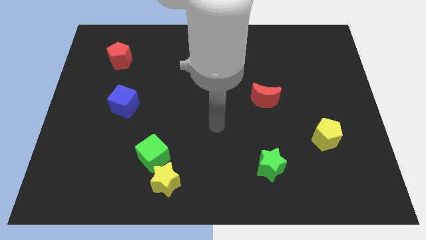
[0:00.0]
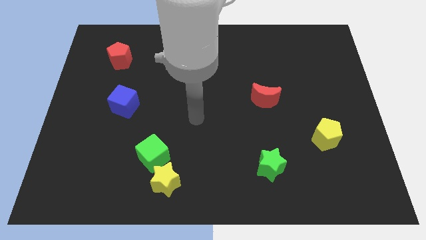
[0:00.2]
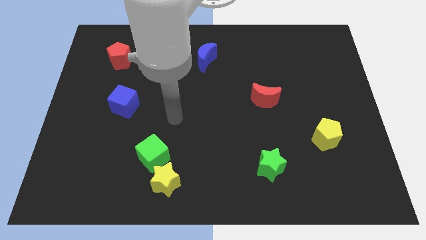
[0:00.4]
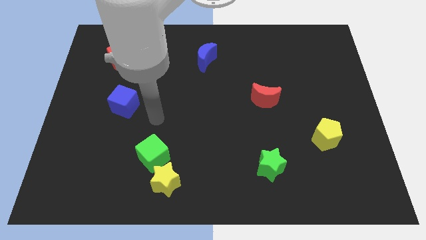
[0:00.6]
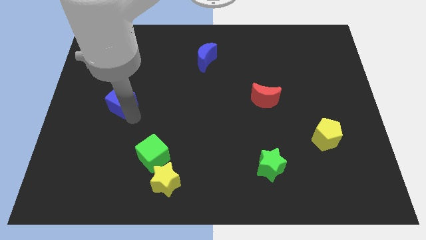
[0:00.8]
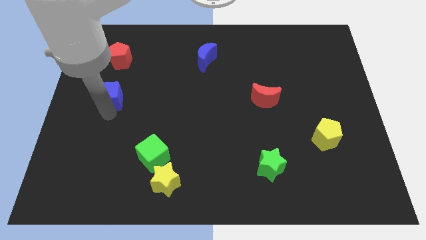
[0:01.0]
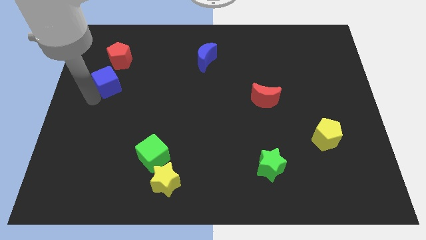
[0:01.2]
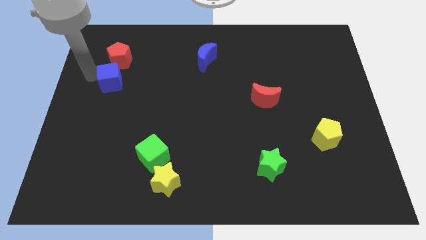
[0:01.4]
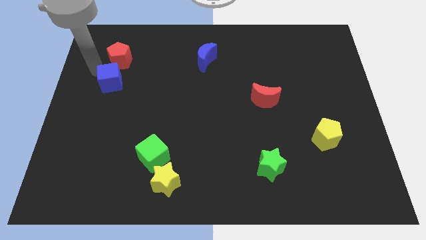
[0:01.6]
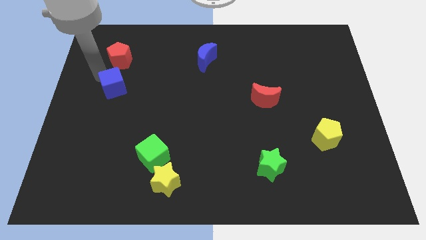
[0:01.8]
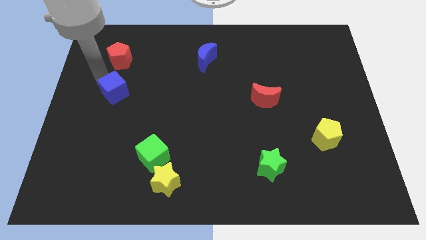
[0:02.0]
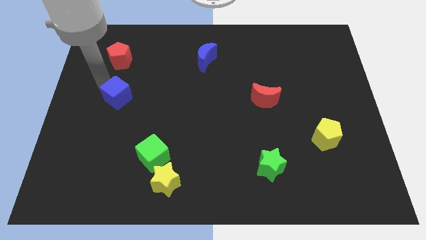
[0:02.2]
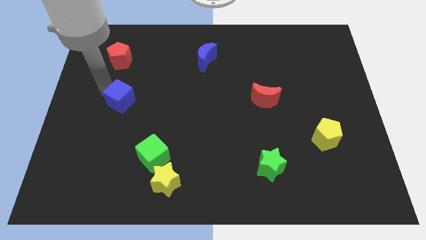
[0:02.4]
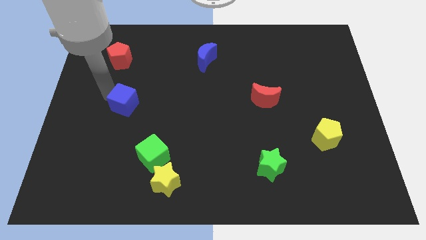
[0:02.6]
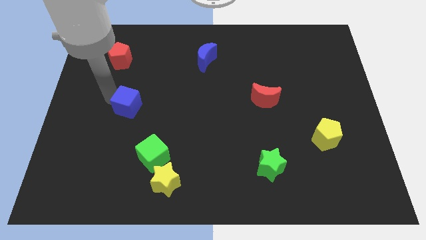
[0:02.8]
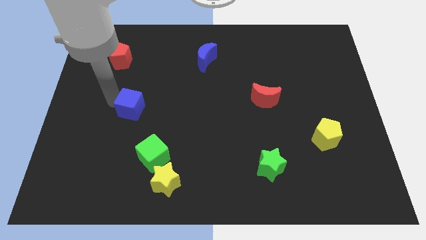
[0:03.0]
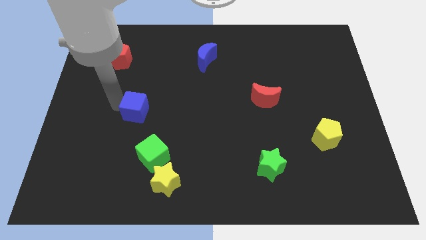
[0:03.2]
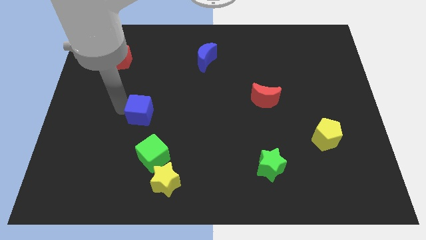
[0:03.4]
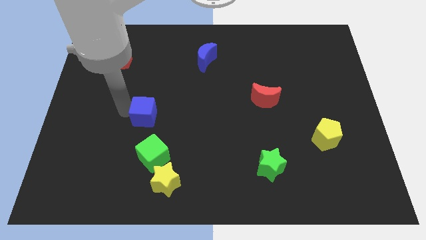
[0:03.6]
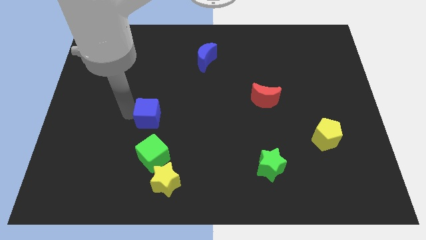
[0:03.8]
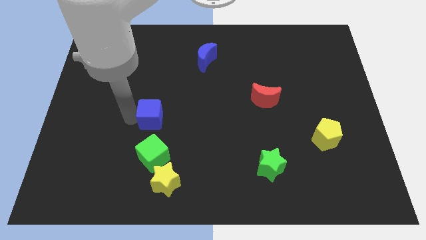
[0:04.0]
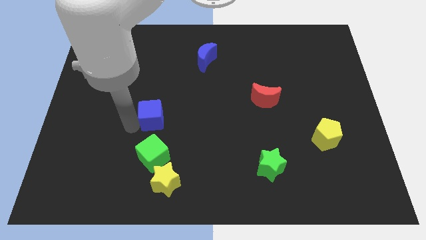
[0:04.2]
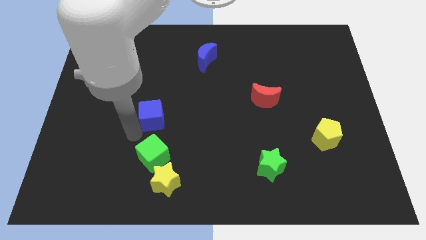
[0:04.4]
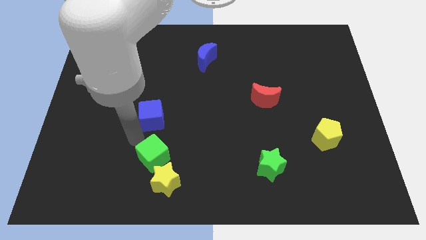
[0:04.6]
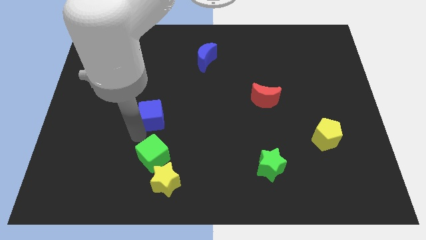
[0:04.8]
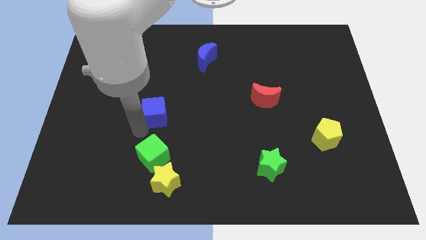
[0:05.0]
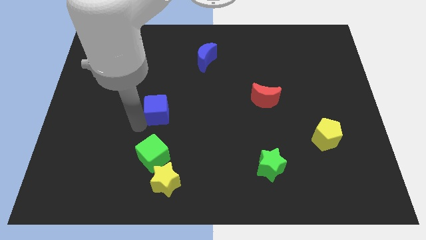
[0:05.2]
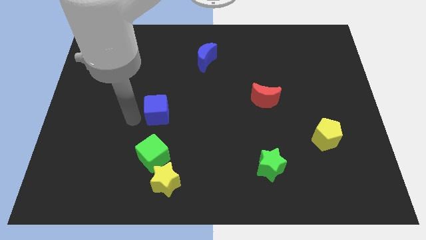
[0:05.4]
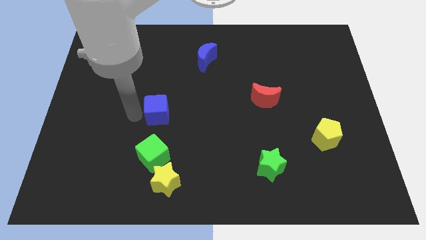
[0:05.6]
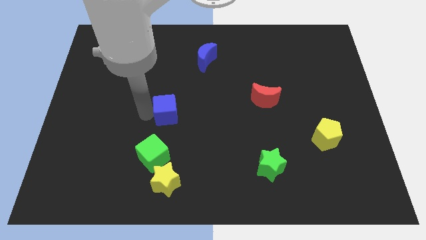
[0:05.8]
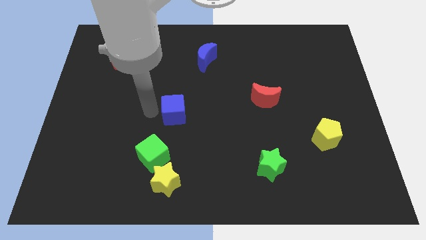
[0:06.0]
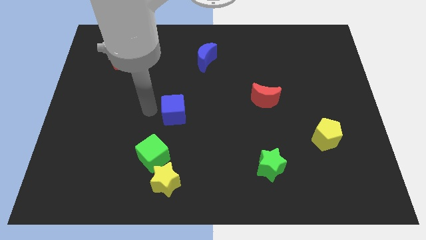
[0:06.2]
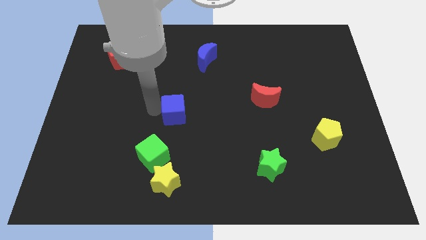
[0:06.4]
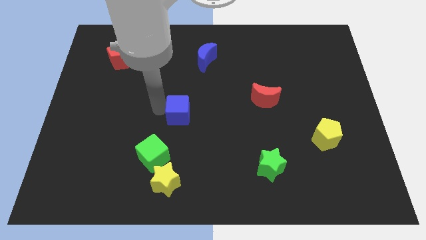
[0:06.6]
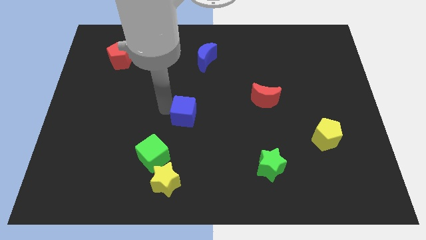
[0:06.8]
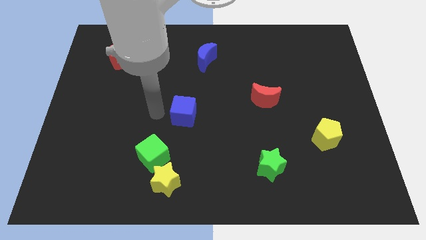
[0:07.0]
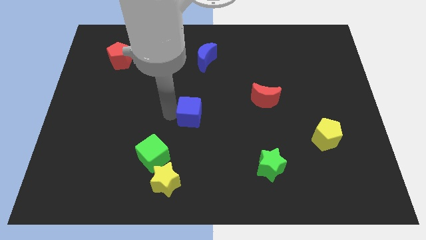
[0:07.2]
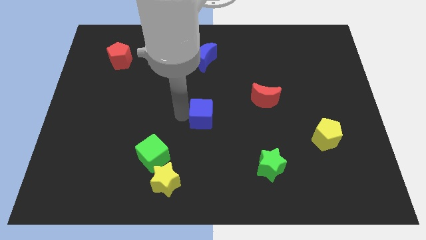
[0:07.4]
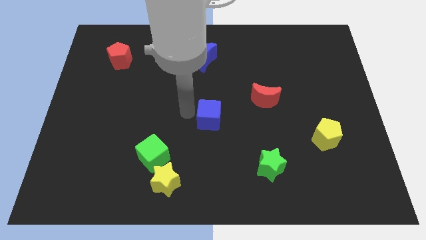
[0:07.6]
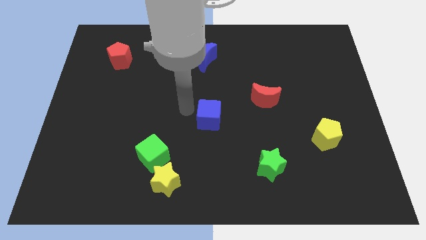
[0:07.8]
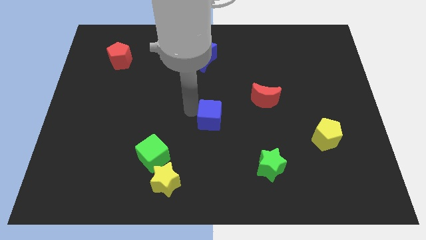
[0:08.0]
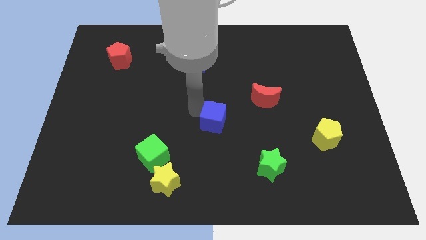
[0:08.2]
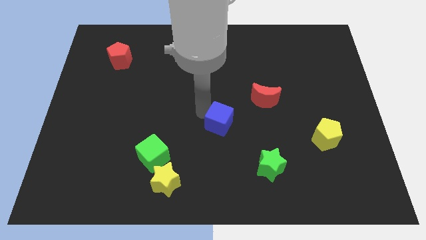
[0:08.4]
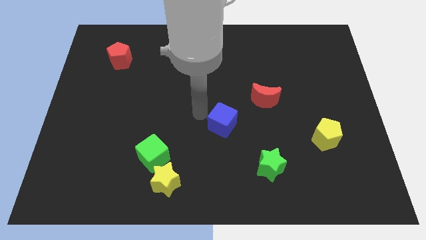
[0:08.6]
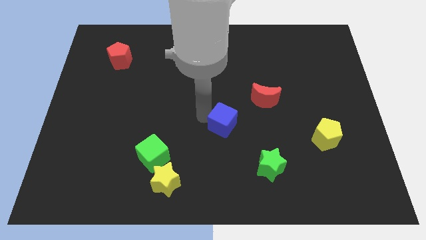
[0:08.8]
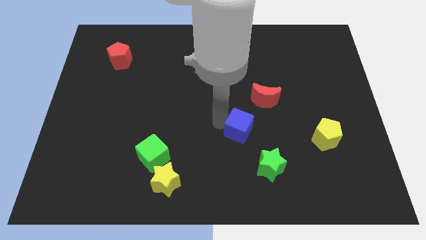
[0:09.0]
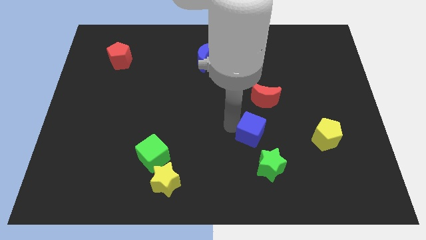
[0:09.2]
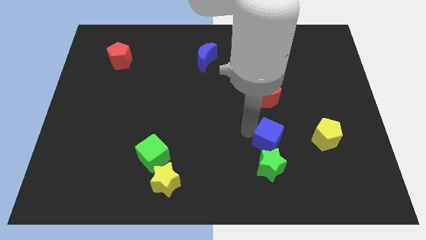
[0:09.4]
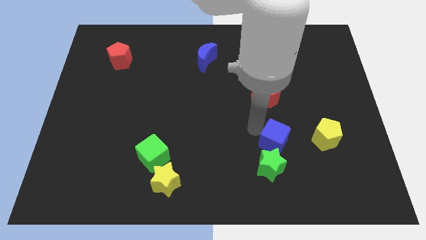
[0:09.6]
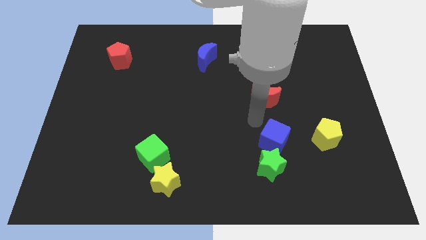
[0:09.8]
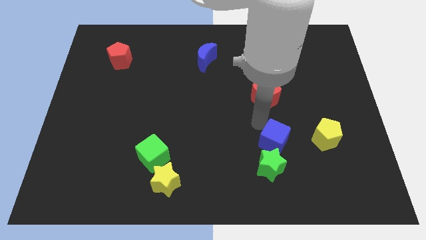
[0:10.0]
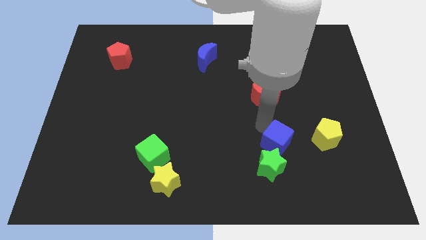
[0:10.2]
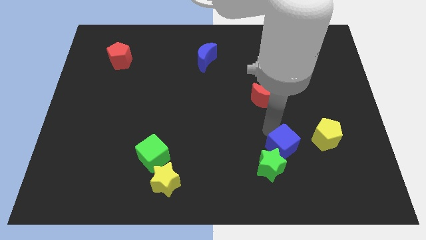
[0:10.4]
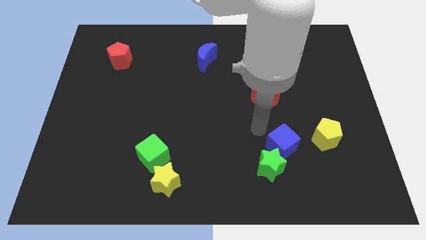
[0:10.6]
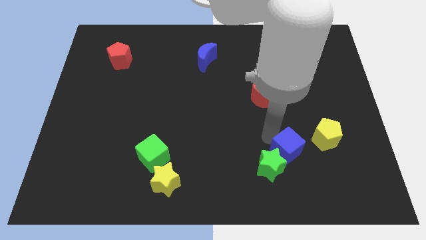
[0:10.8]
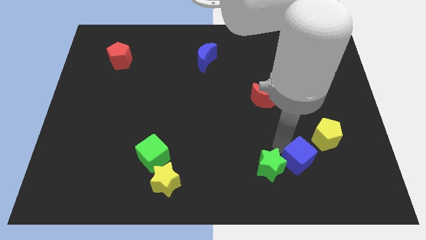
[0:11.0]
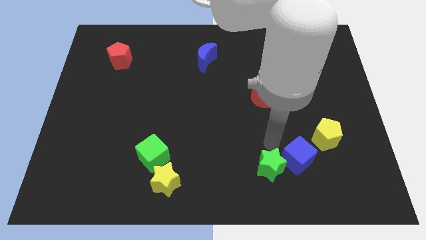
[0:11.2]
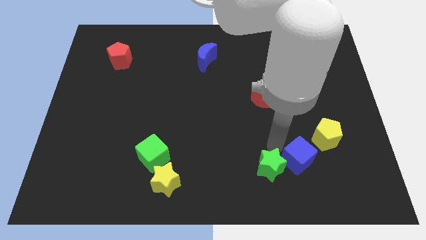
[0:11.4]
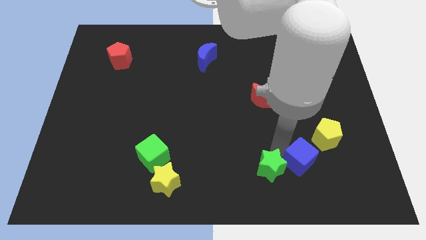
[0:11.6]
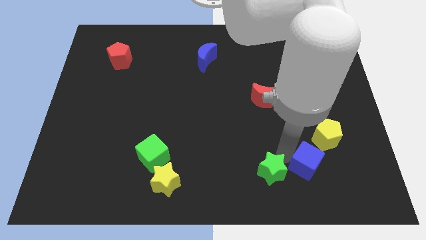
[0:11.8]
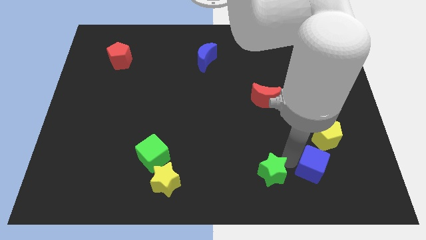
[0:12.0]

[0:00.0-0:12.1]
move the blue cube to the bottom side of the yellow pentagon

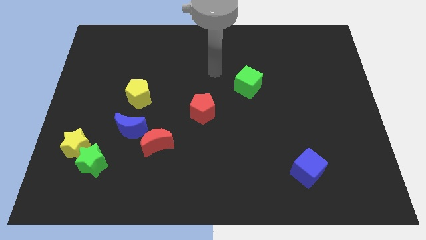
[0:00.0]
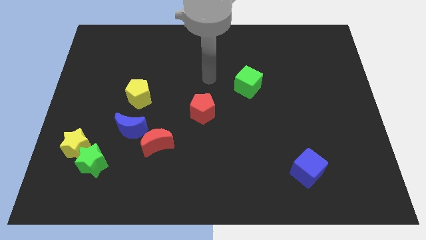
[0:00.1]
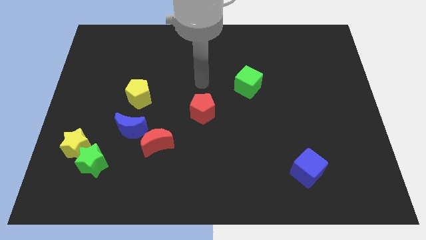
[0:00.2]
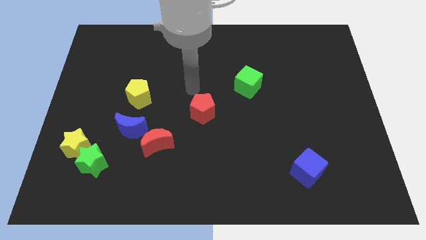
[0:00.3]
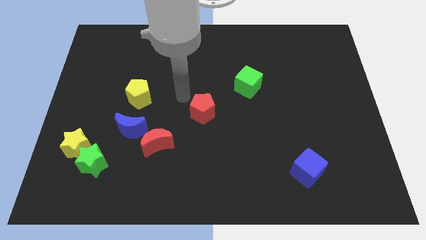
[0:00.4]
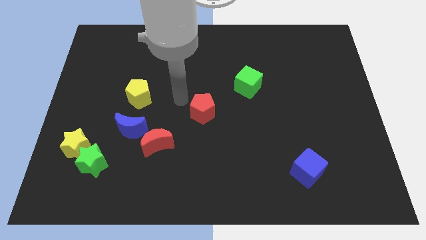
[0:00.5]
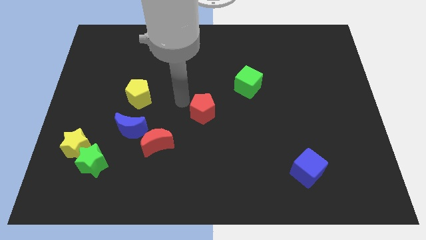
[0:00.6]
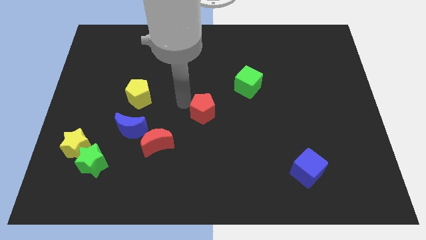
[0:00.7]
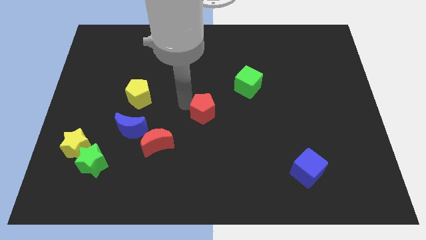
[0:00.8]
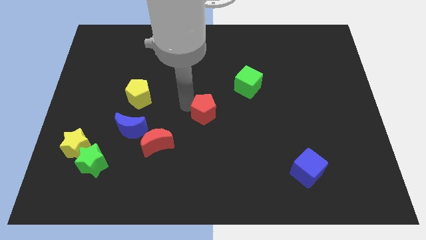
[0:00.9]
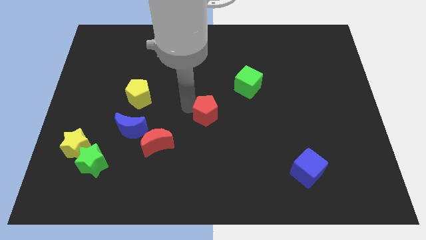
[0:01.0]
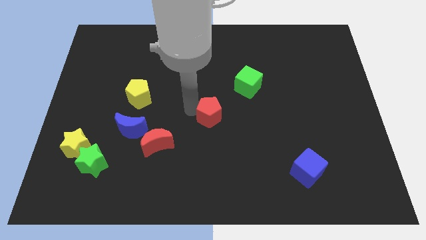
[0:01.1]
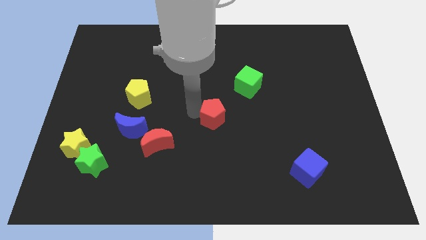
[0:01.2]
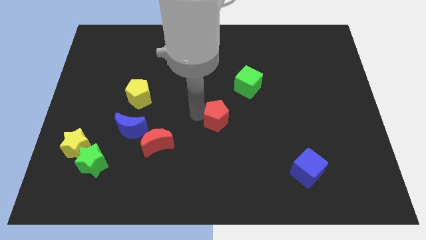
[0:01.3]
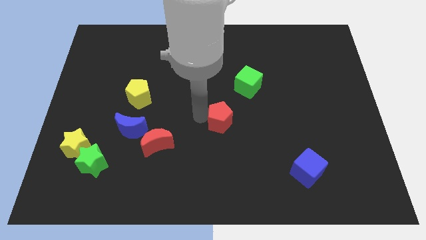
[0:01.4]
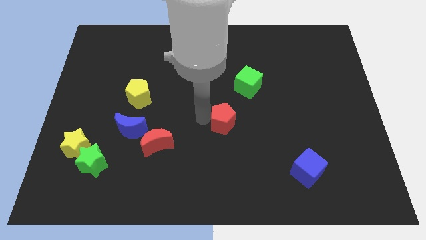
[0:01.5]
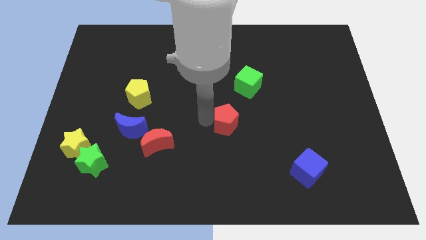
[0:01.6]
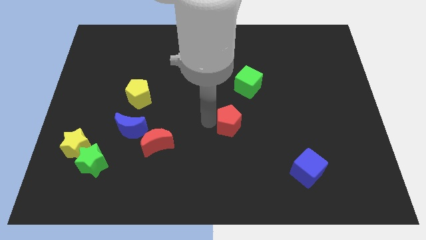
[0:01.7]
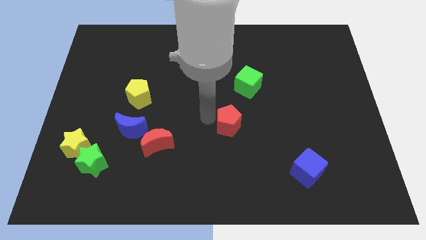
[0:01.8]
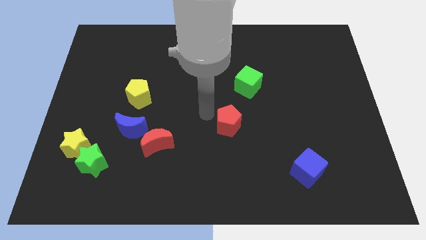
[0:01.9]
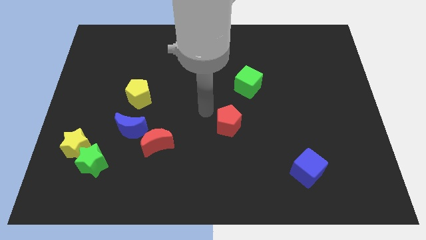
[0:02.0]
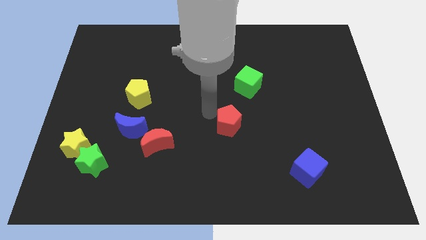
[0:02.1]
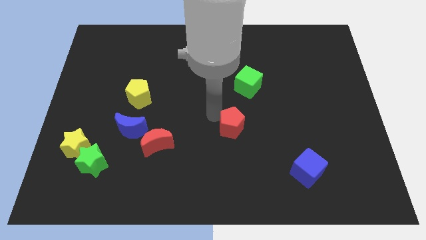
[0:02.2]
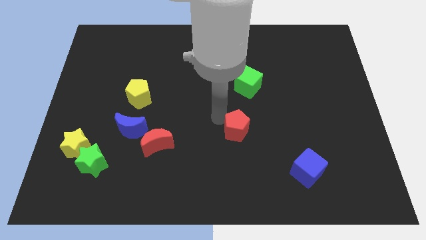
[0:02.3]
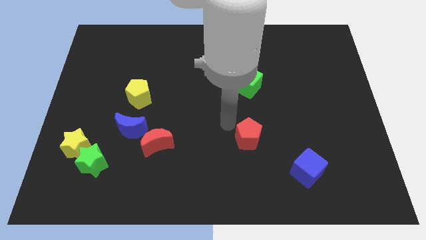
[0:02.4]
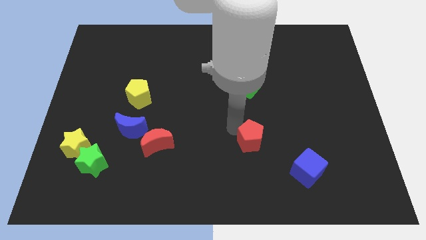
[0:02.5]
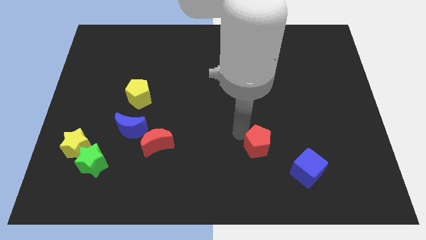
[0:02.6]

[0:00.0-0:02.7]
move the red pentagon to the top left of the blue cube
